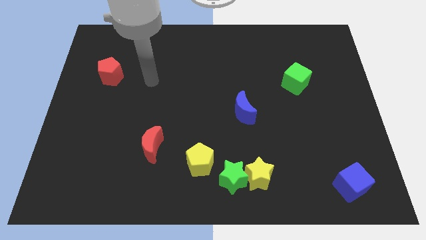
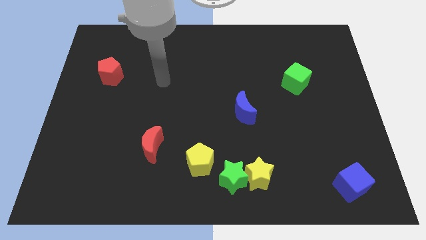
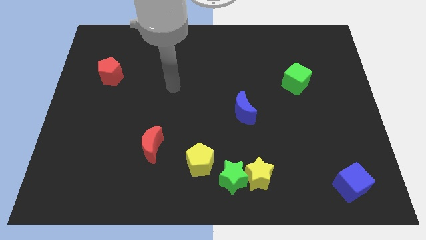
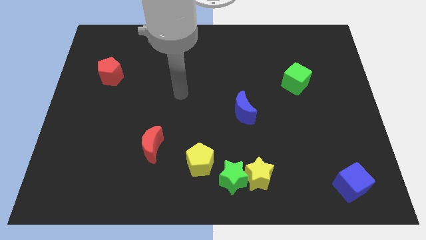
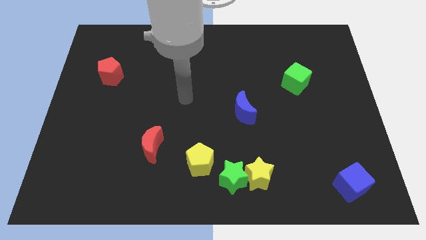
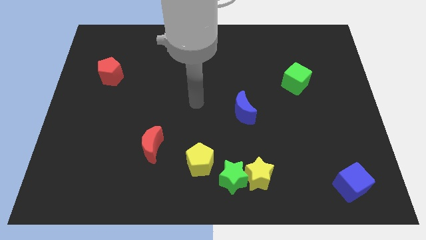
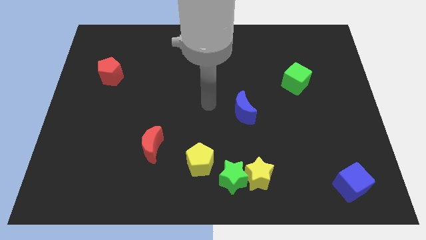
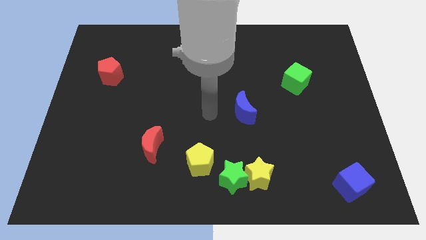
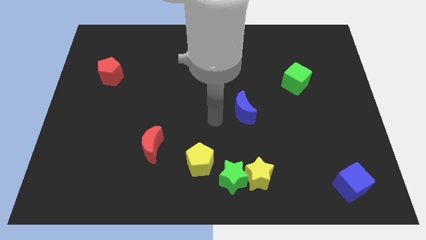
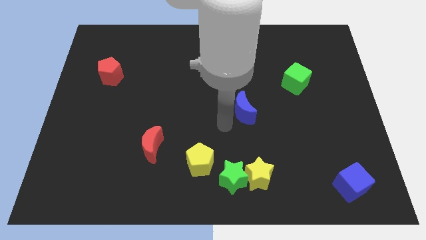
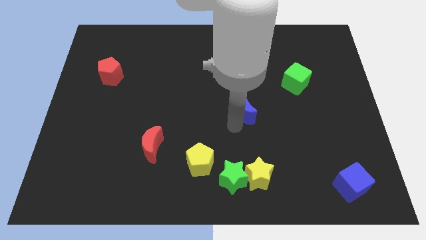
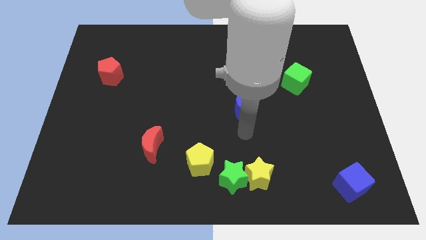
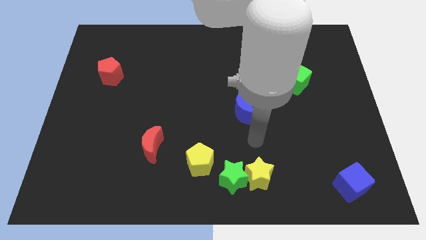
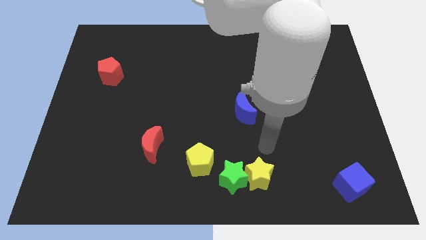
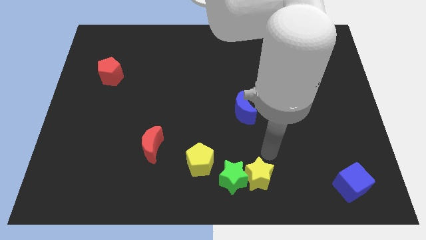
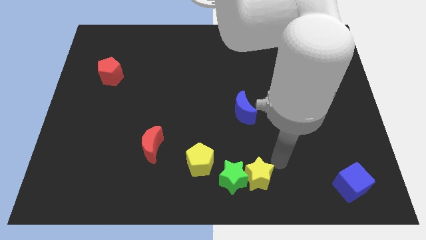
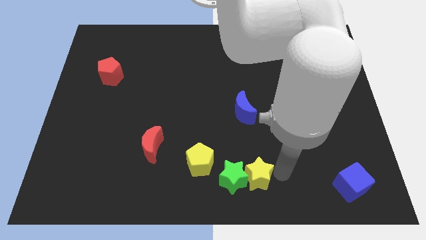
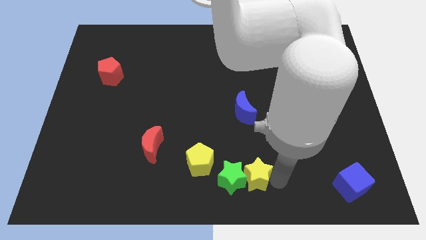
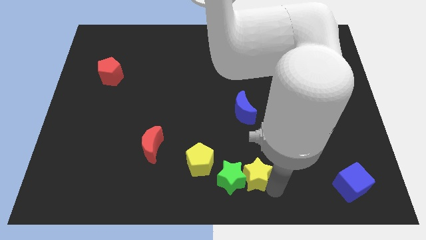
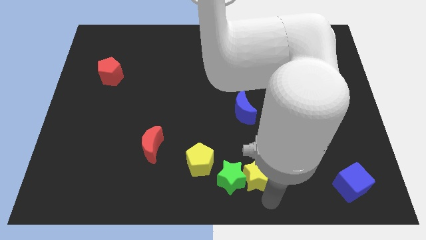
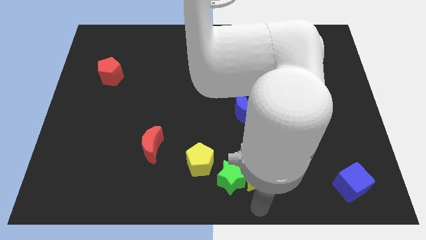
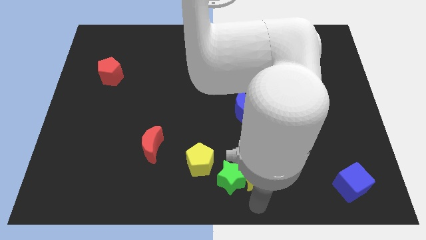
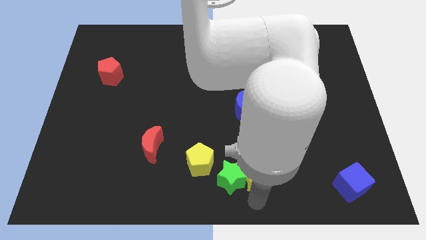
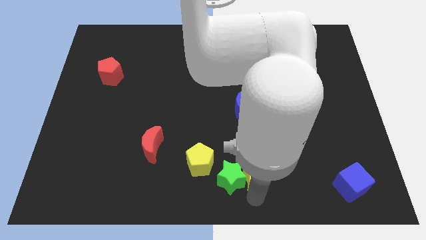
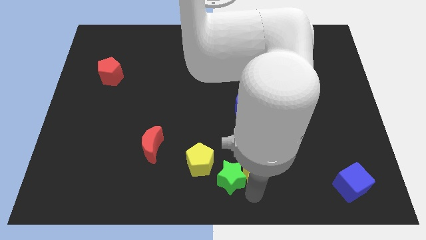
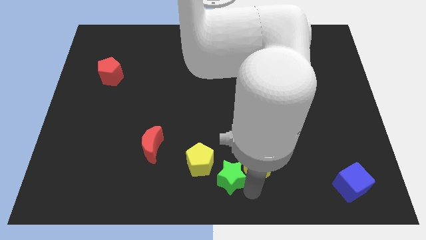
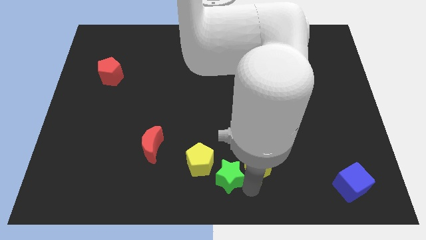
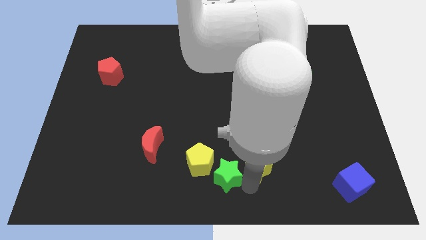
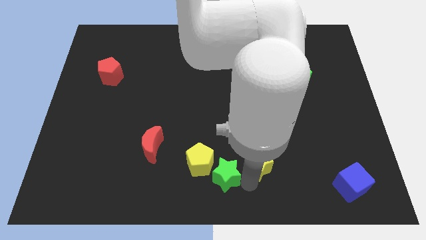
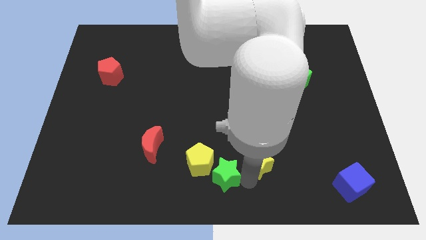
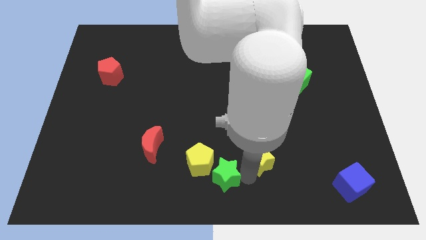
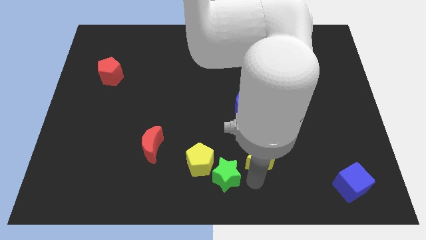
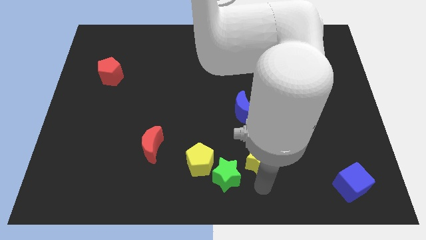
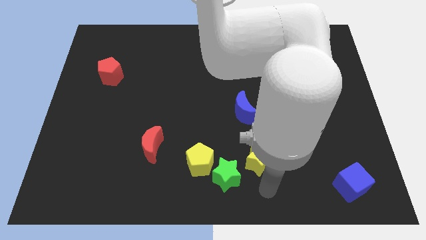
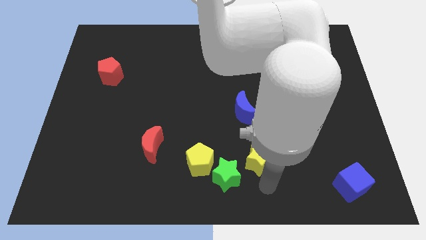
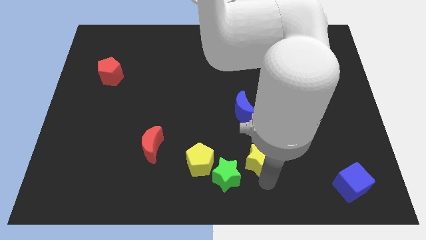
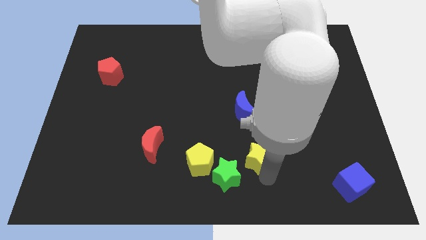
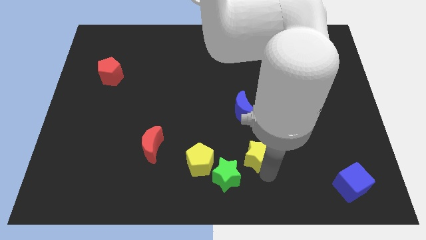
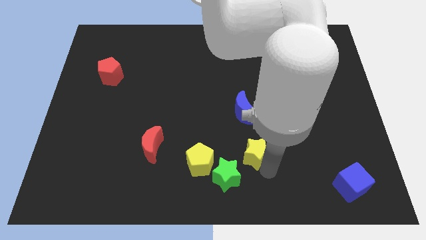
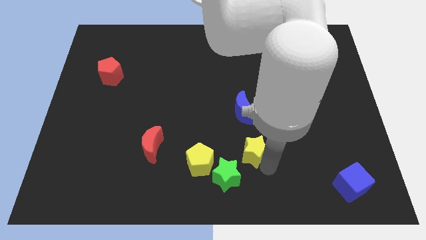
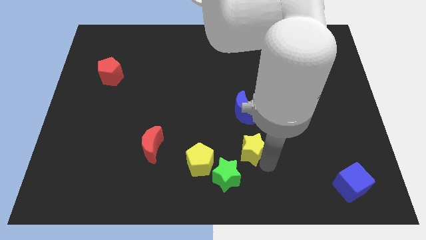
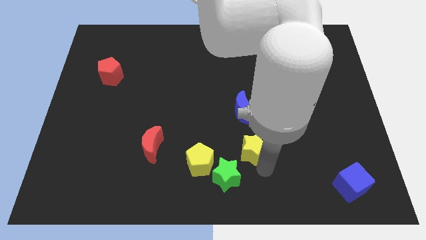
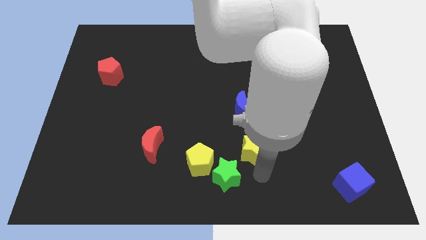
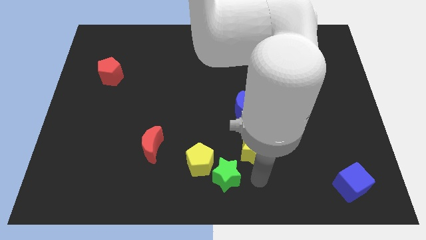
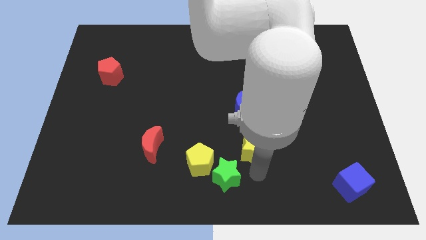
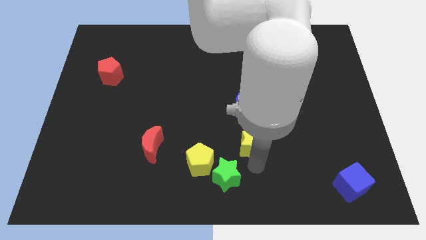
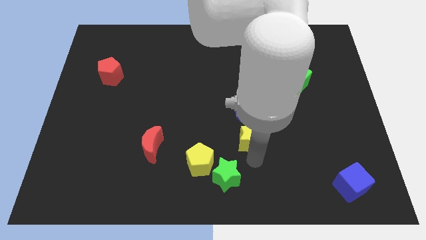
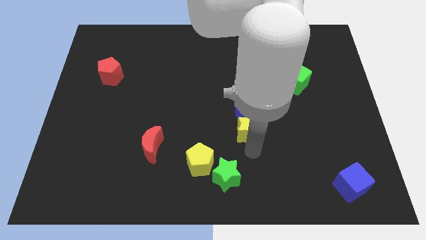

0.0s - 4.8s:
push the yellow star next to the blue moon

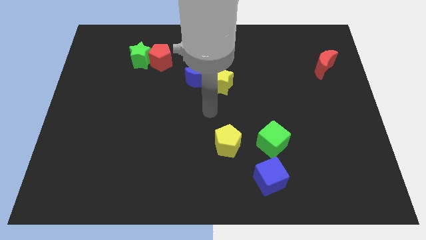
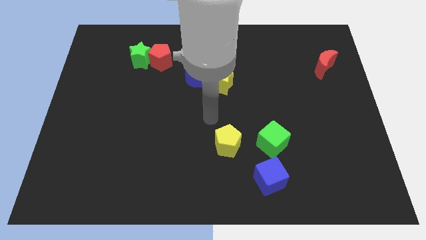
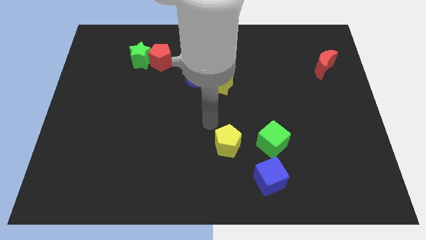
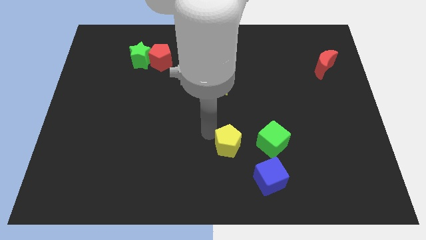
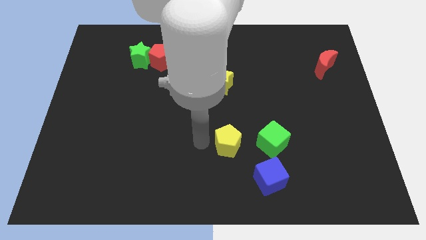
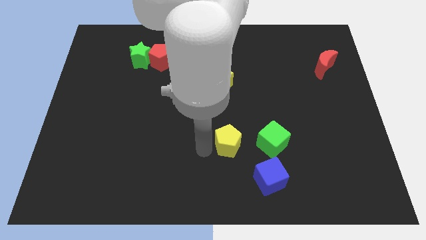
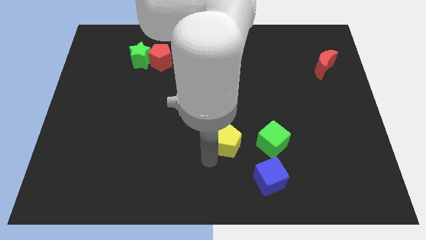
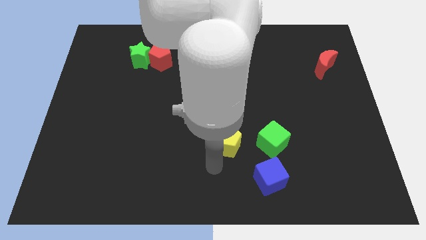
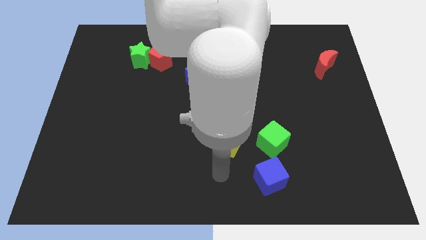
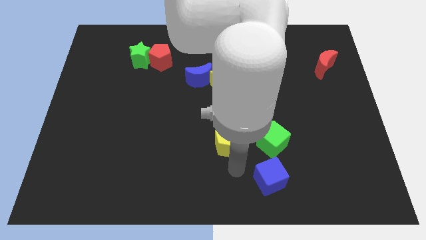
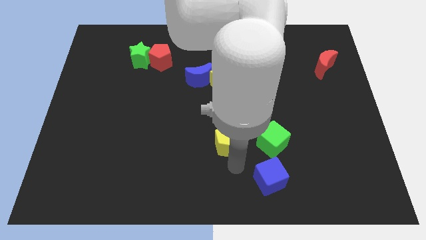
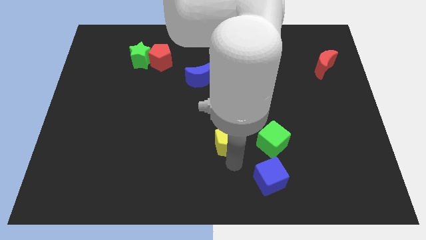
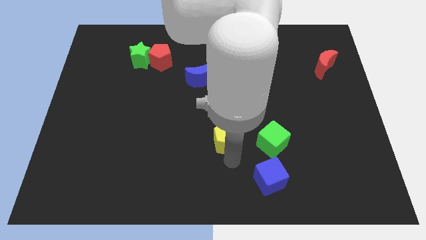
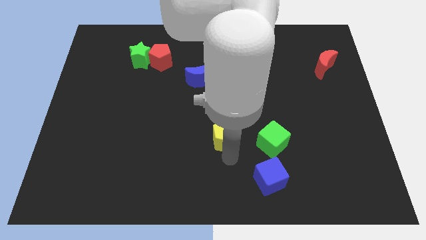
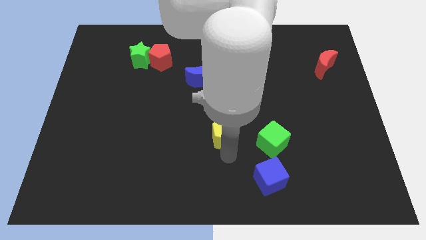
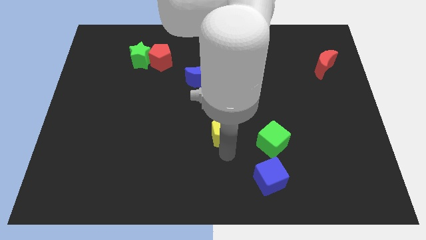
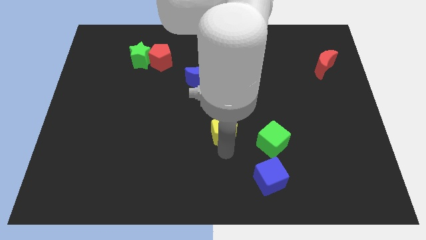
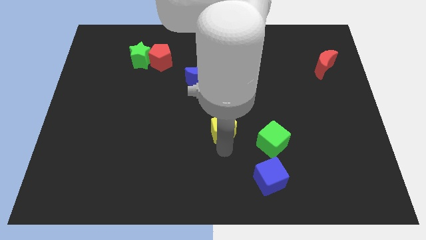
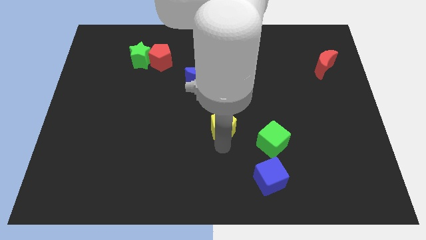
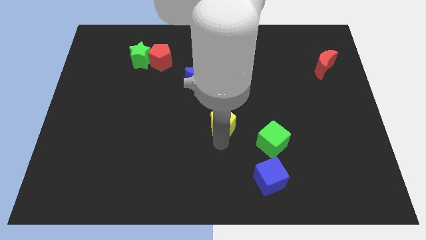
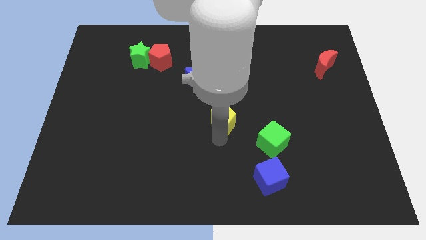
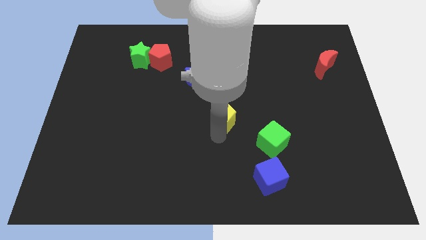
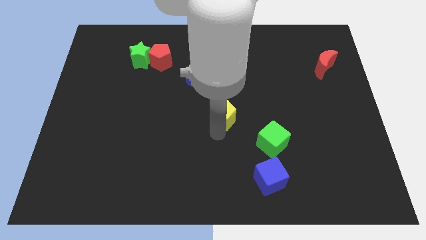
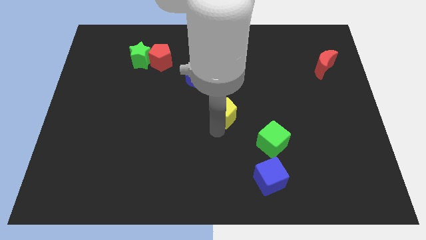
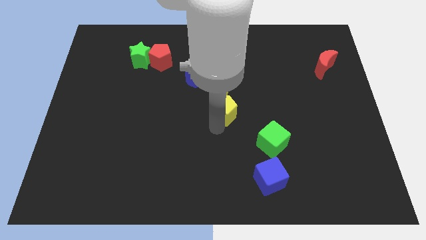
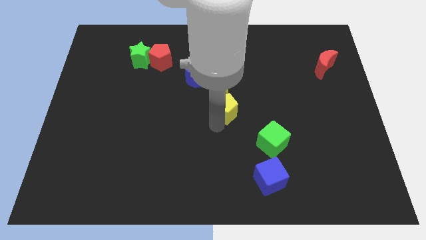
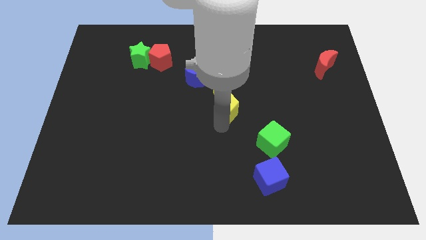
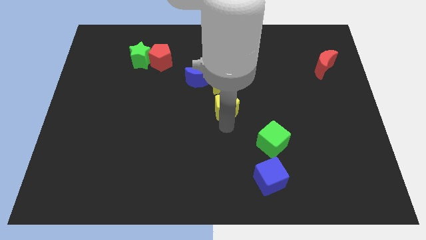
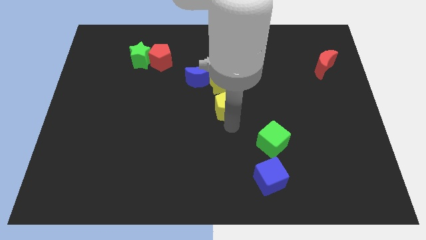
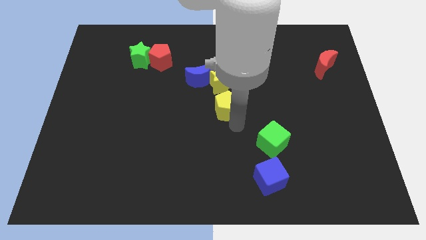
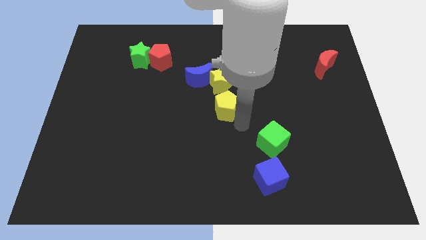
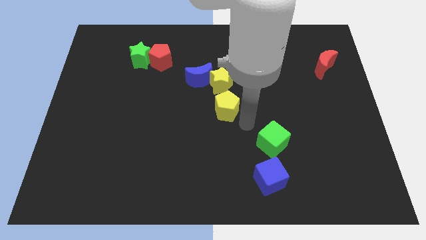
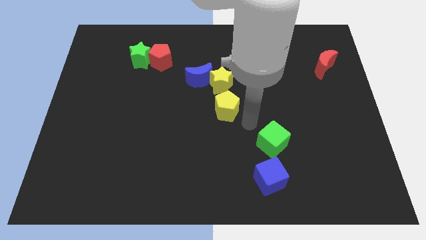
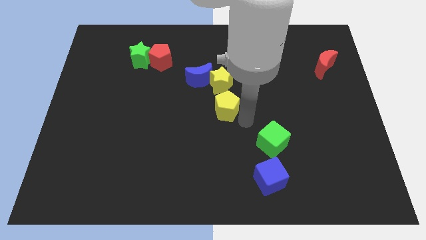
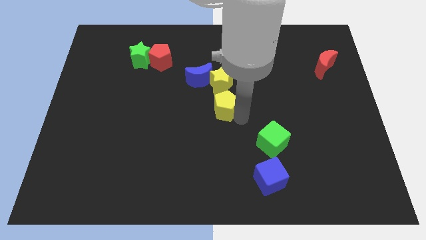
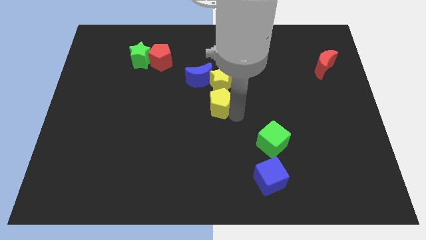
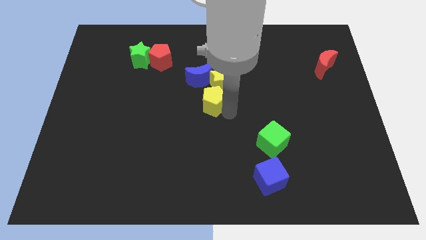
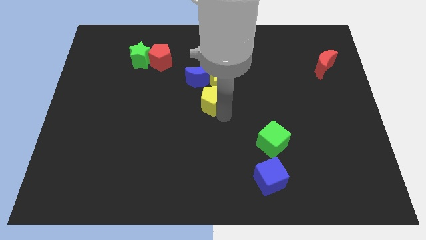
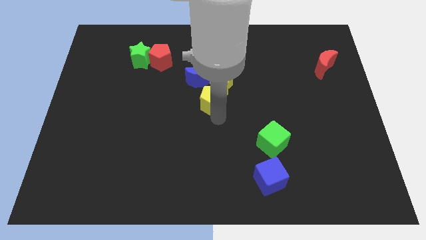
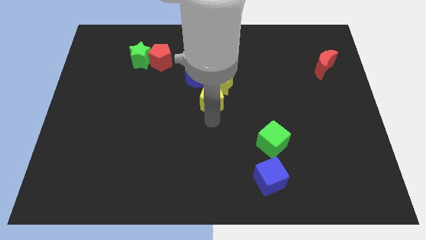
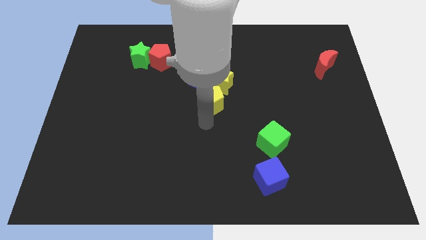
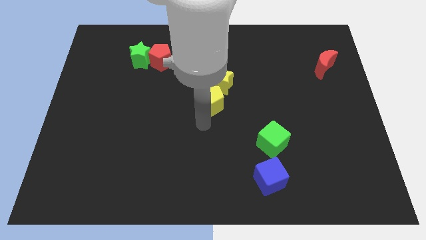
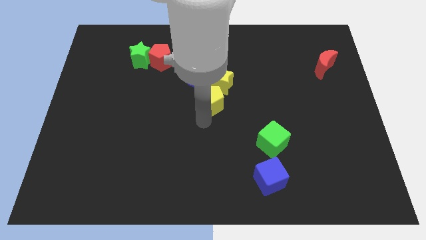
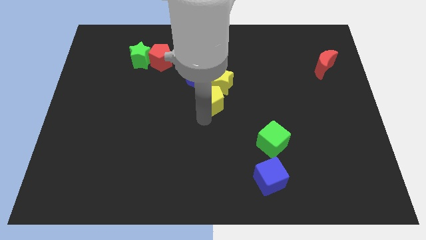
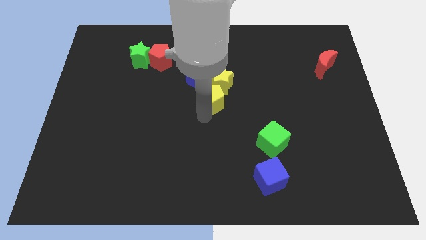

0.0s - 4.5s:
push the yellow pentagon towards the yellow star
